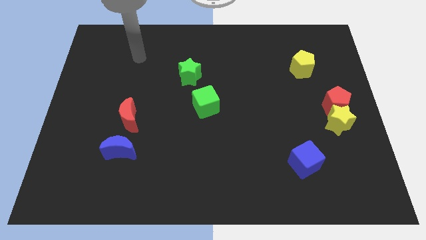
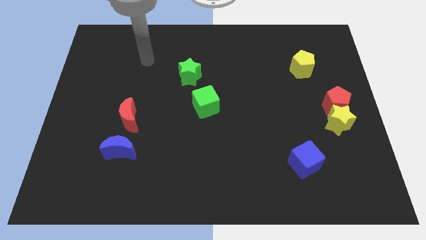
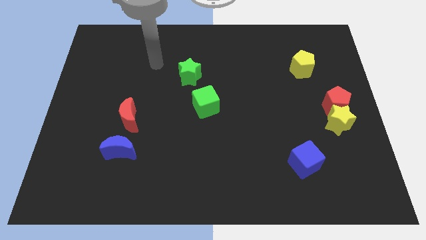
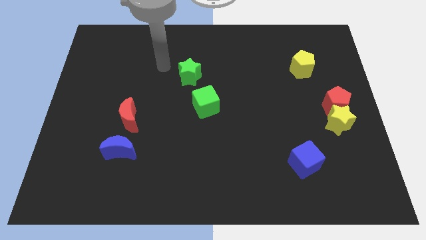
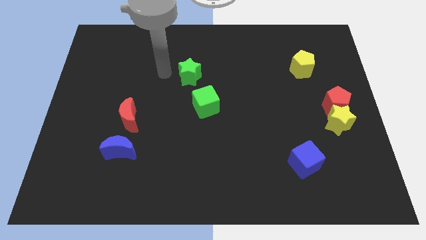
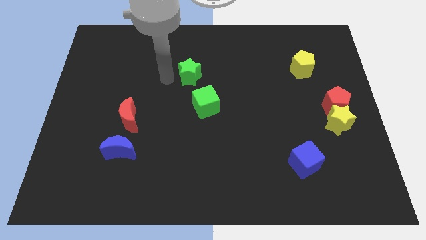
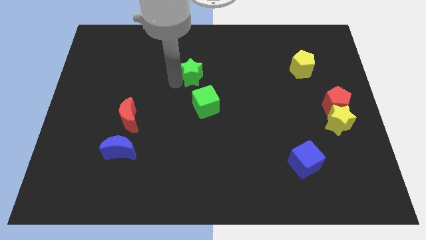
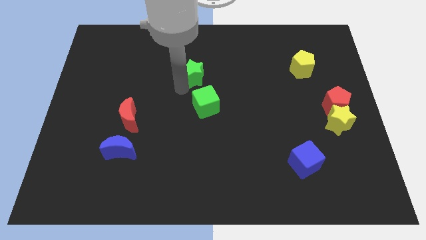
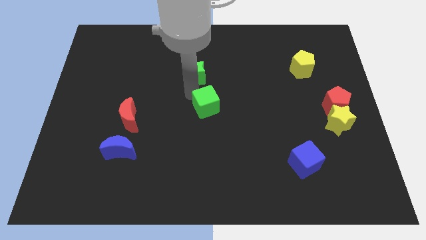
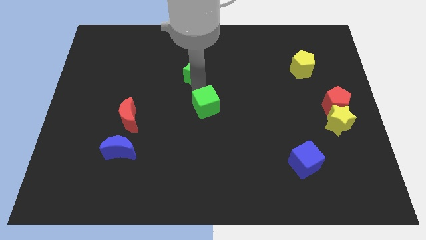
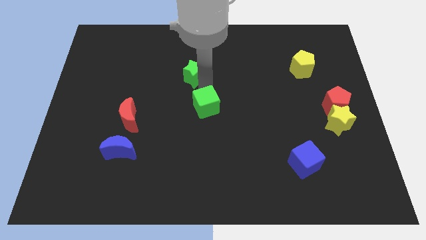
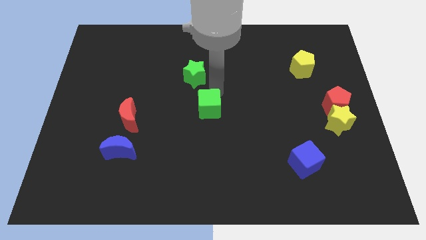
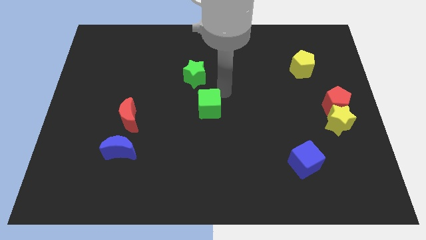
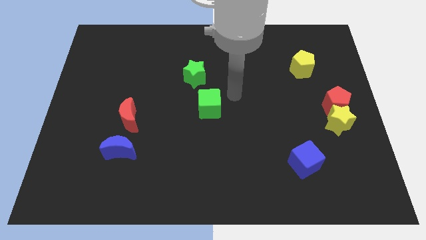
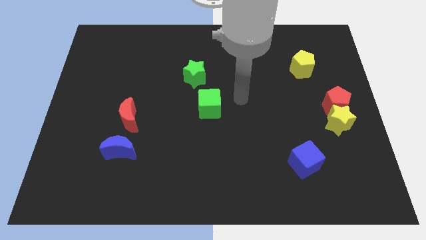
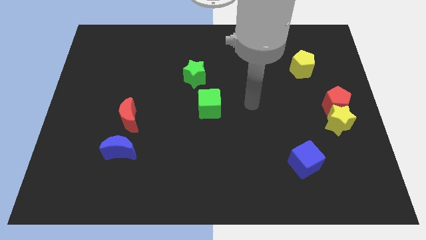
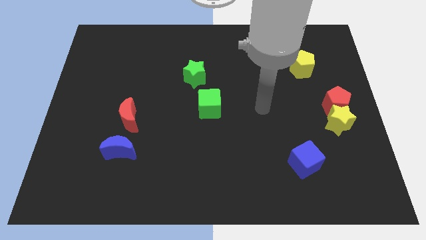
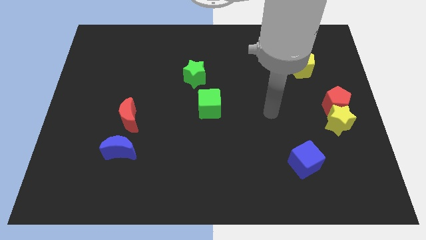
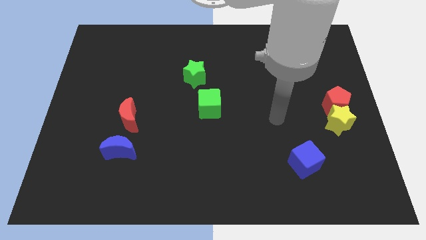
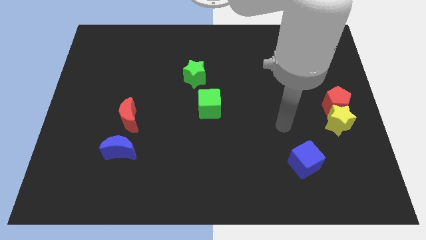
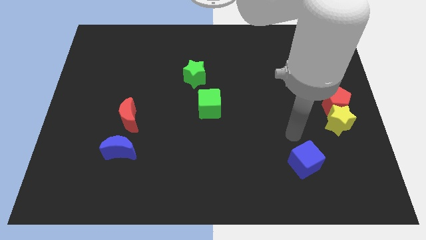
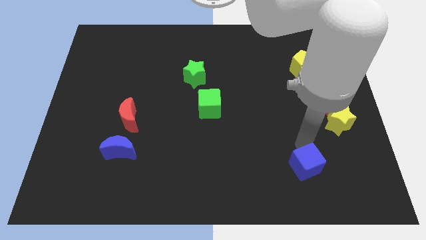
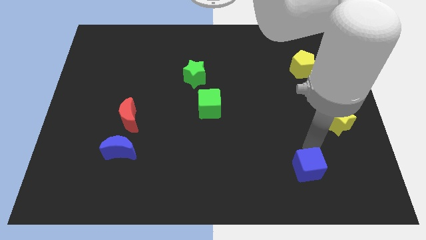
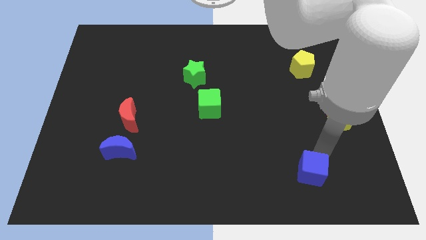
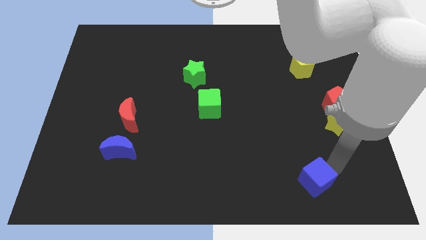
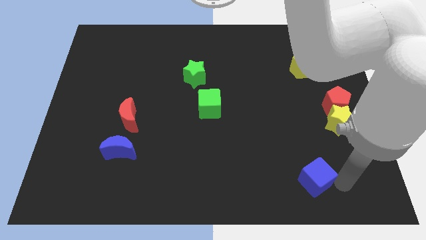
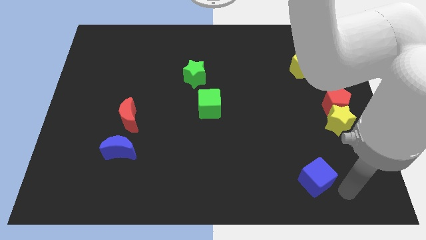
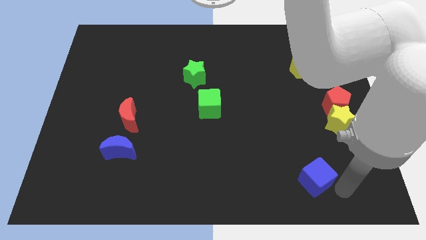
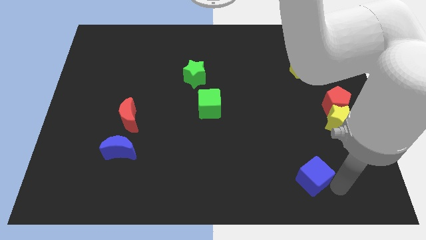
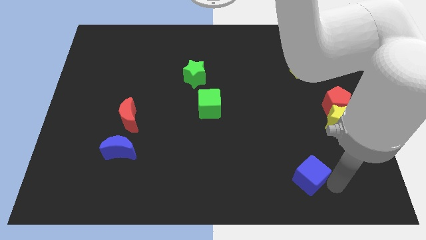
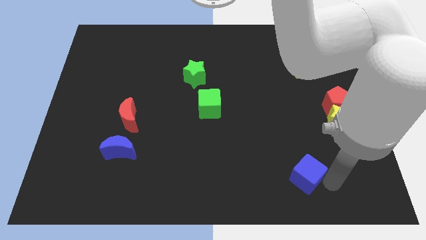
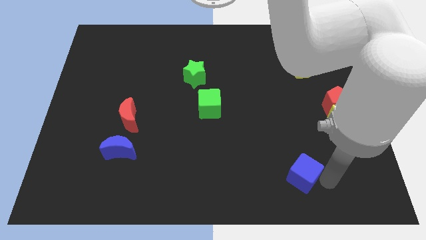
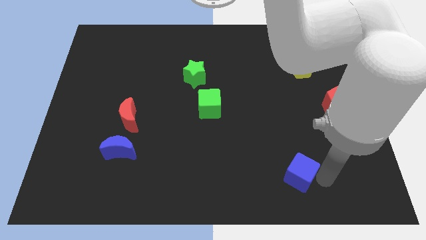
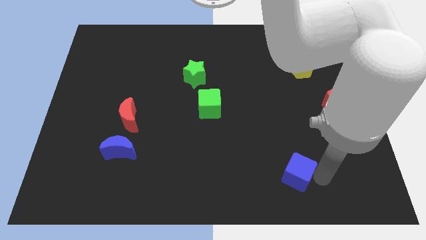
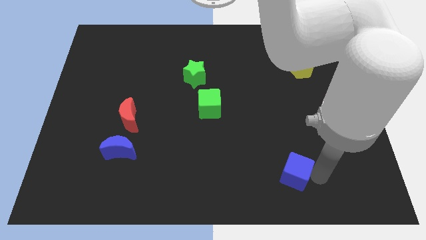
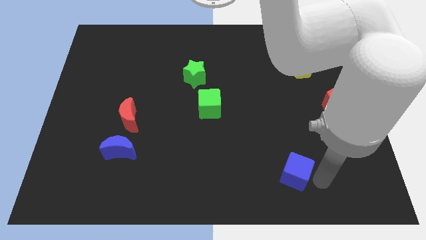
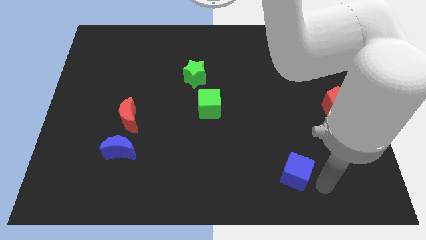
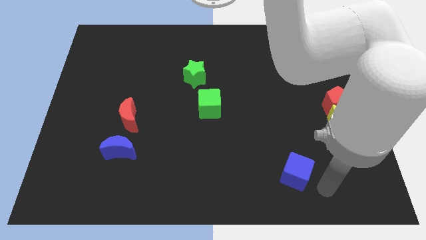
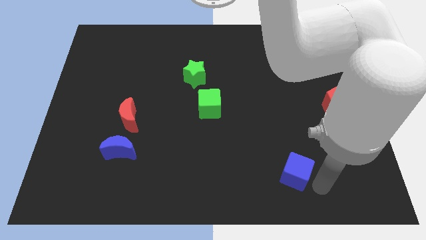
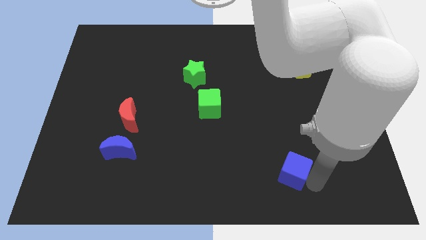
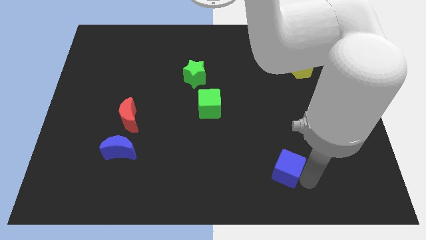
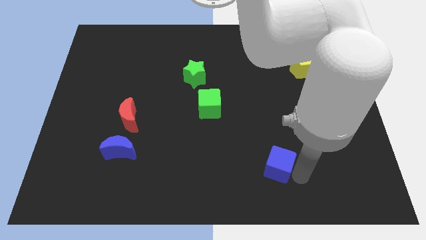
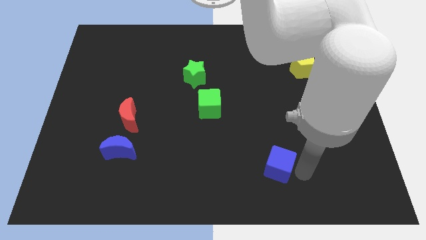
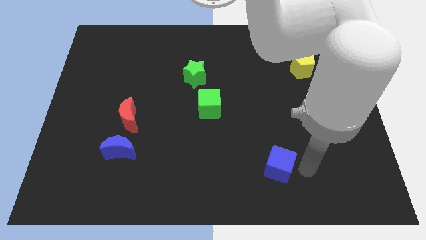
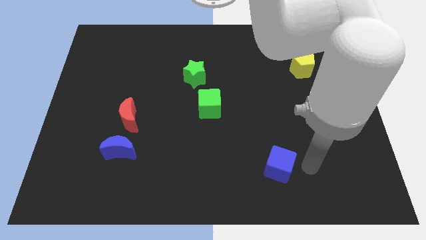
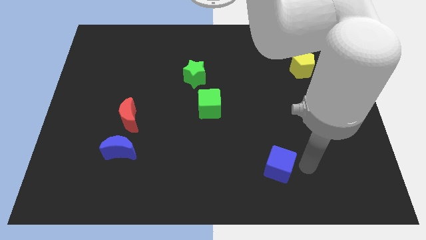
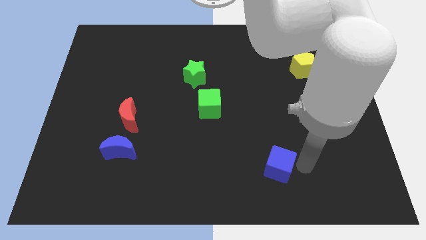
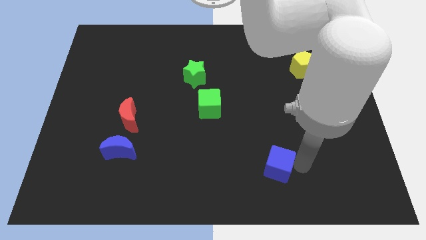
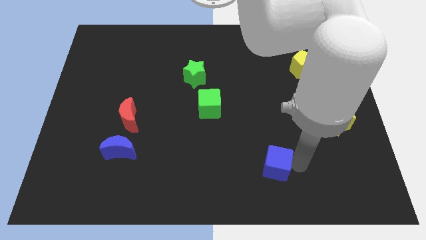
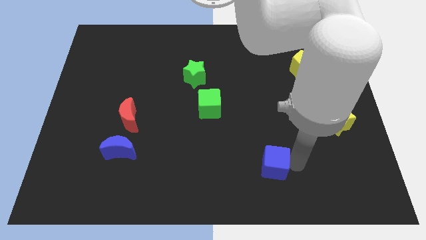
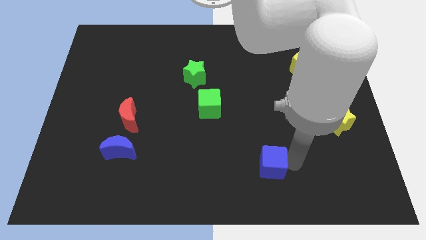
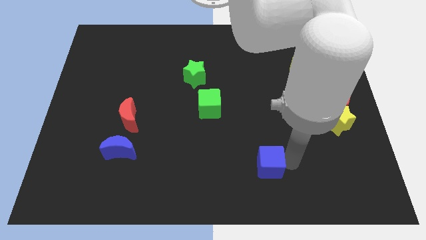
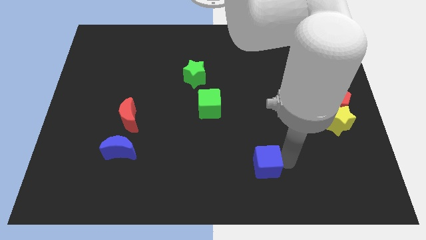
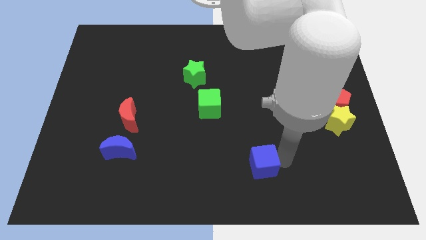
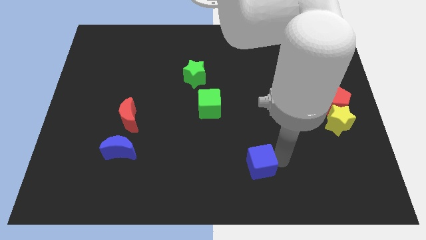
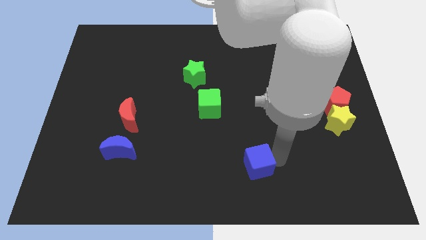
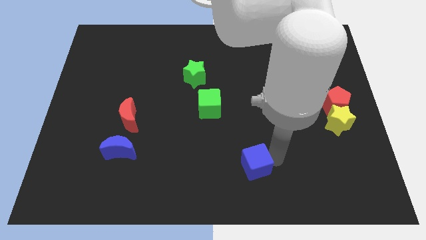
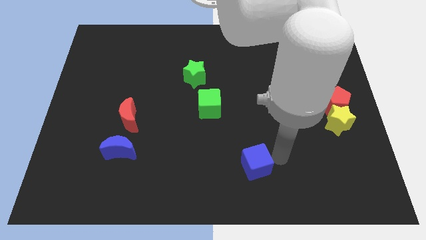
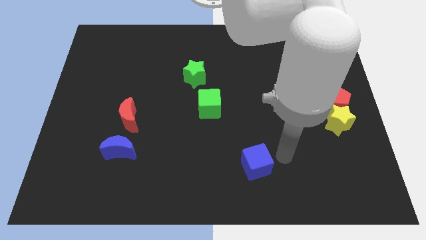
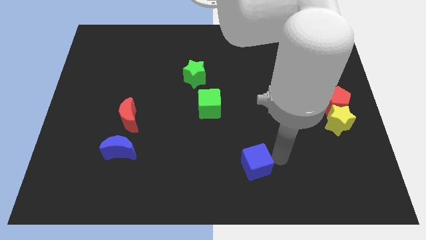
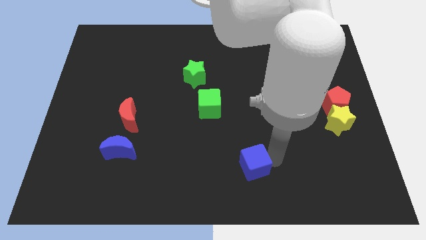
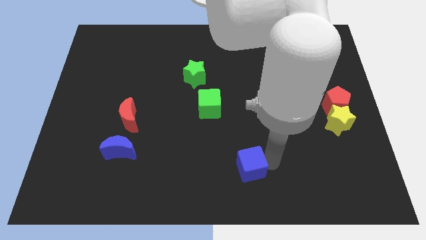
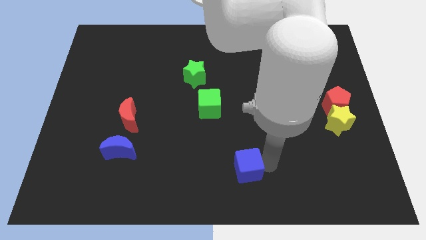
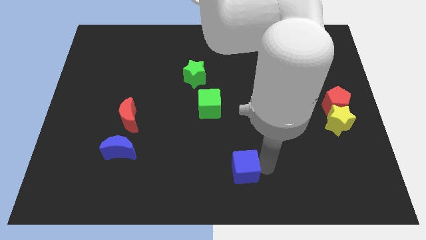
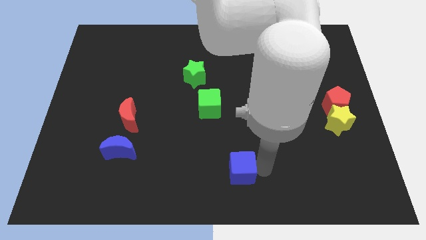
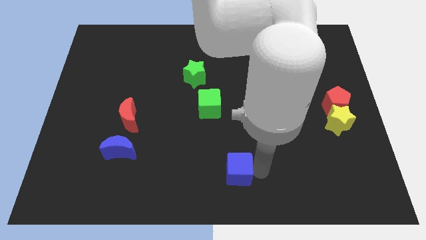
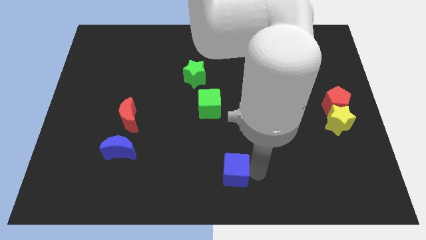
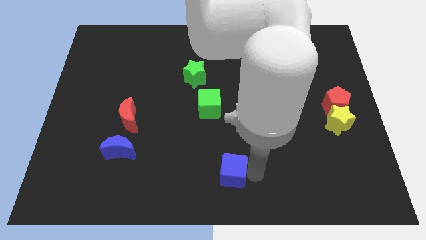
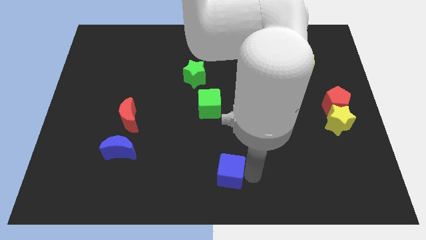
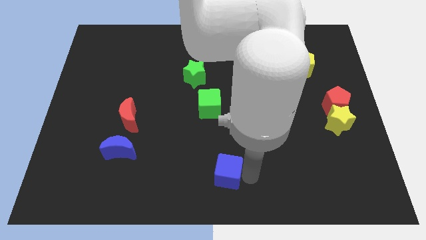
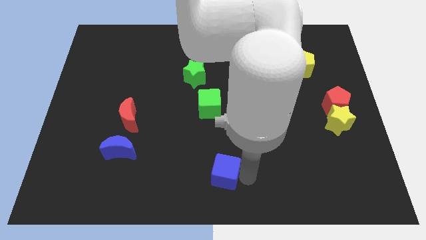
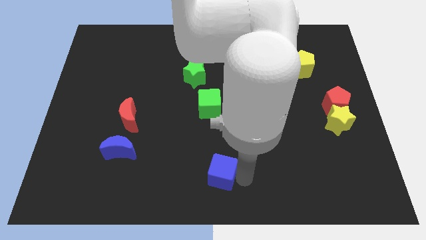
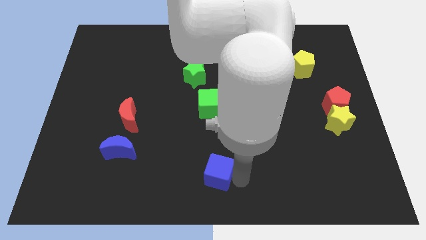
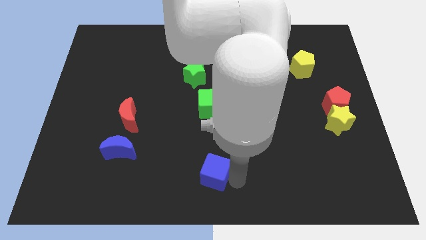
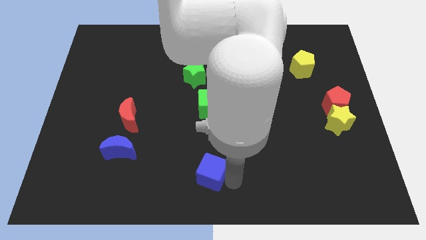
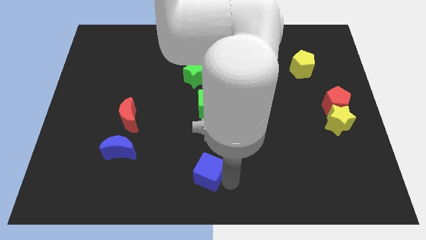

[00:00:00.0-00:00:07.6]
move the blue cube left

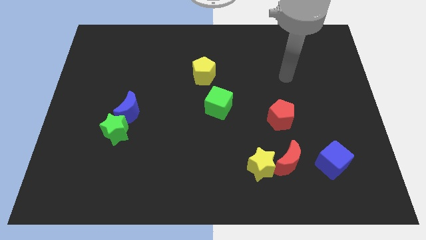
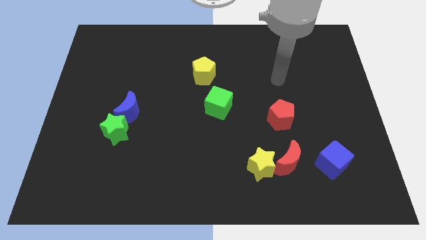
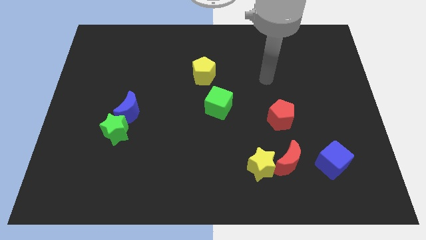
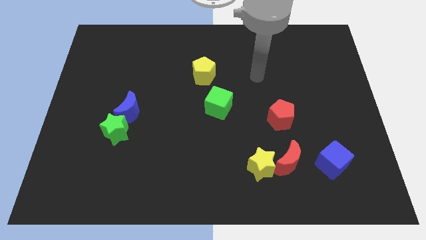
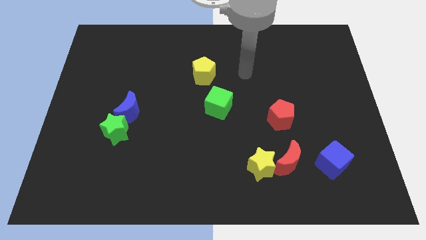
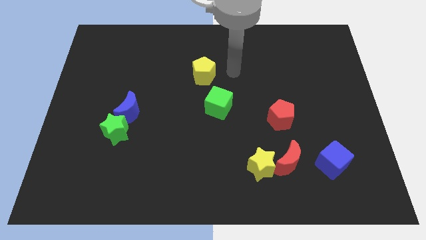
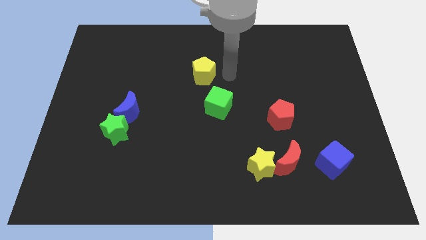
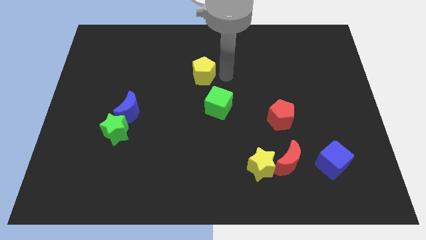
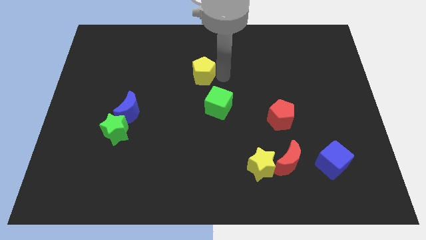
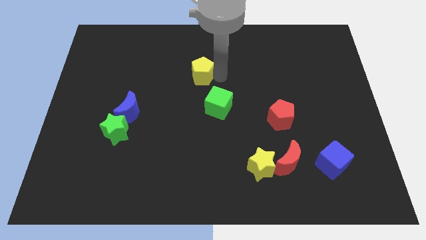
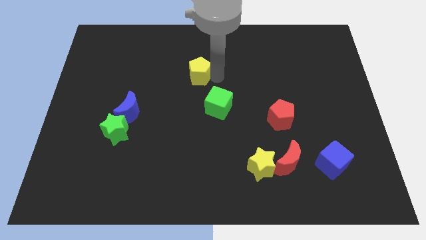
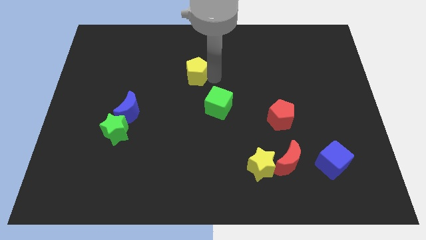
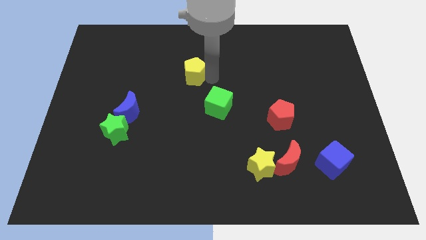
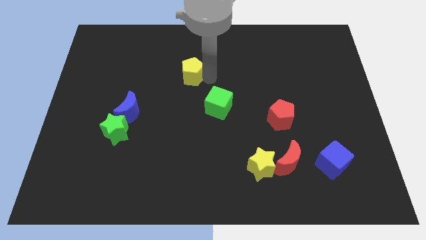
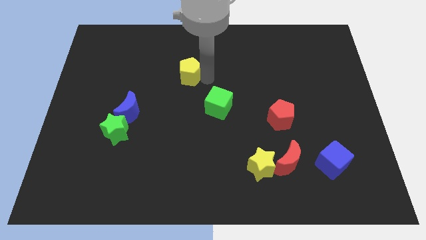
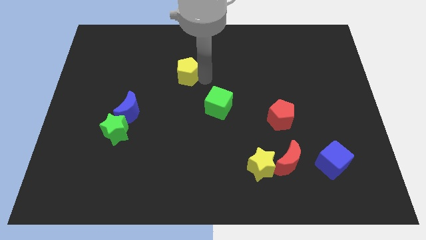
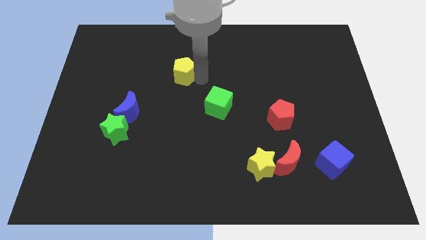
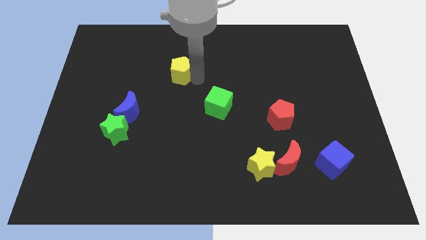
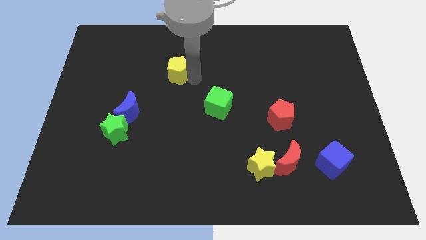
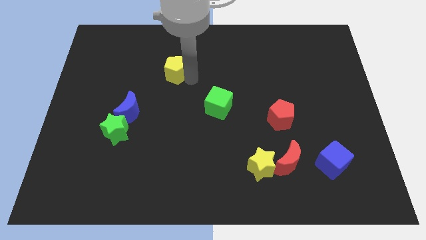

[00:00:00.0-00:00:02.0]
push the yellow pentagon somewhat left
